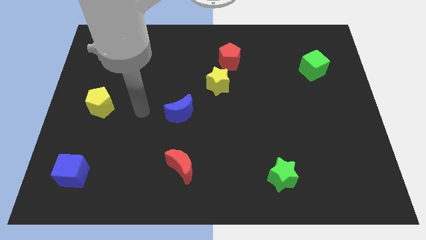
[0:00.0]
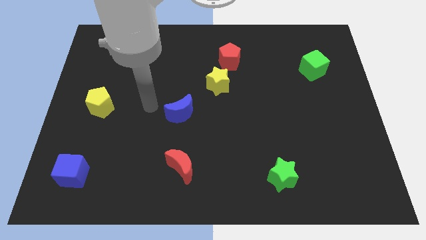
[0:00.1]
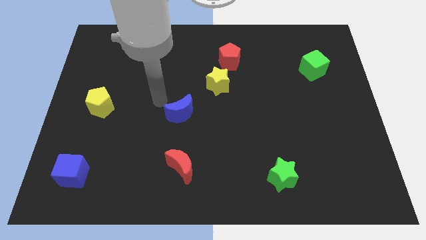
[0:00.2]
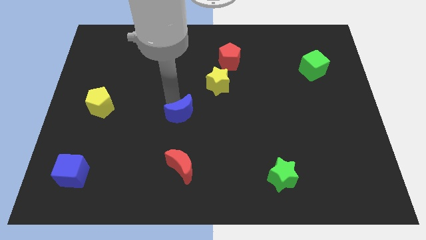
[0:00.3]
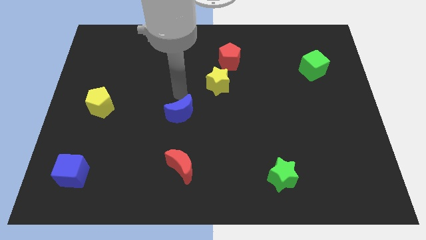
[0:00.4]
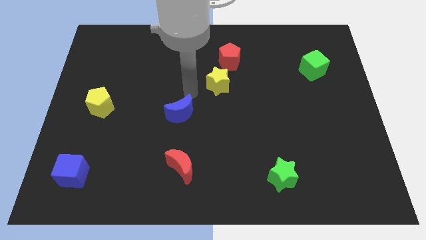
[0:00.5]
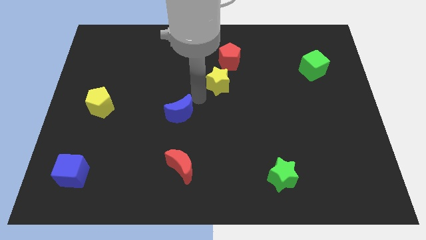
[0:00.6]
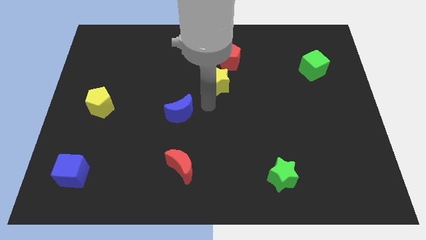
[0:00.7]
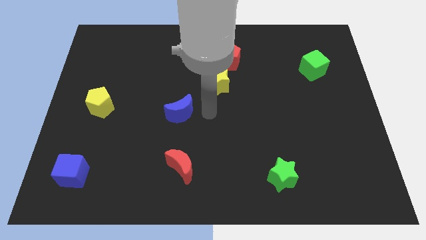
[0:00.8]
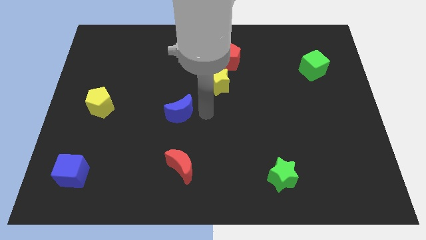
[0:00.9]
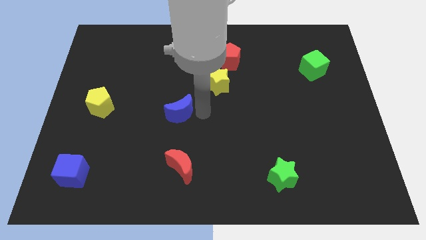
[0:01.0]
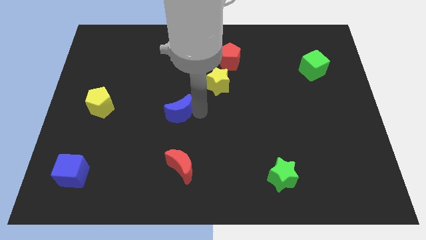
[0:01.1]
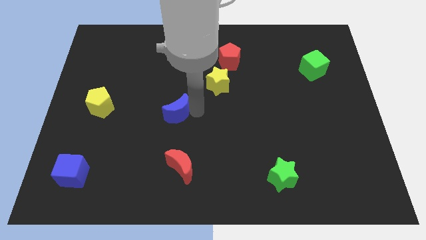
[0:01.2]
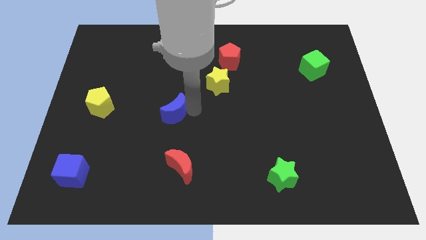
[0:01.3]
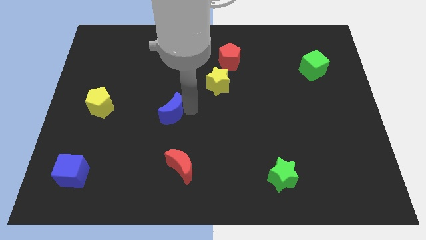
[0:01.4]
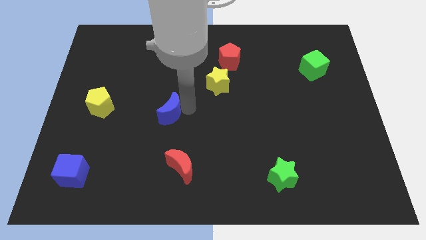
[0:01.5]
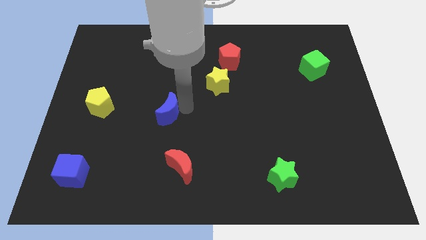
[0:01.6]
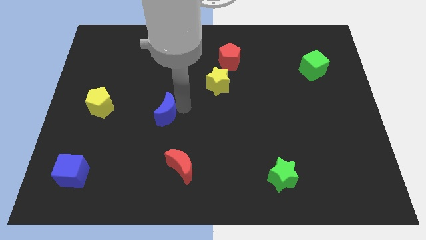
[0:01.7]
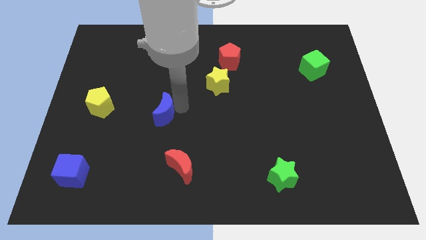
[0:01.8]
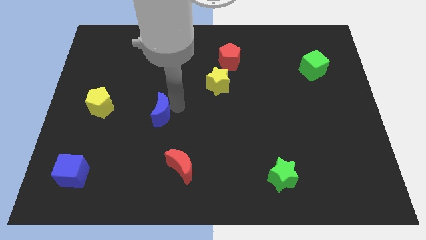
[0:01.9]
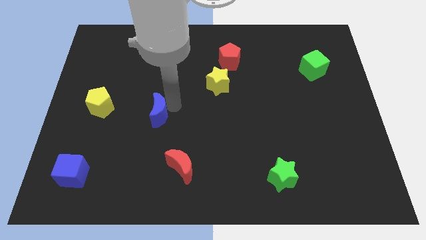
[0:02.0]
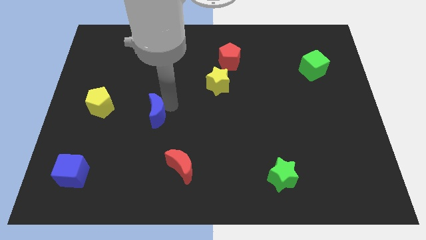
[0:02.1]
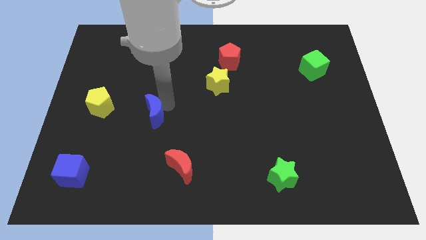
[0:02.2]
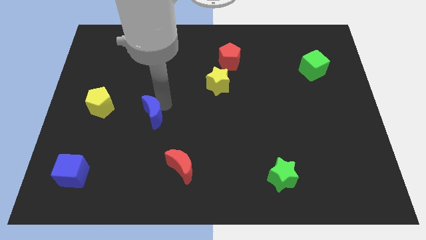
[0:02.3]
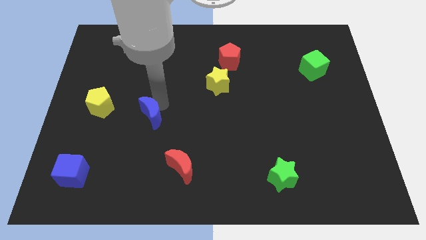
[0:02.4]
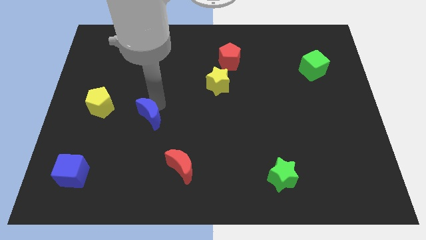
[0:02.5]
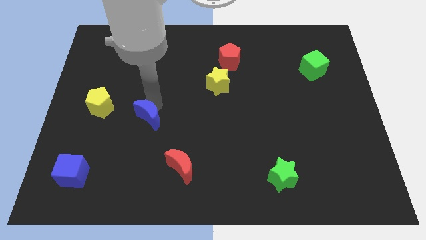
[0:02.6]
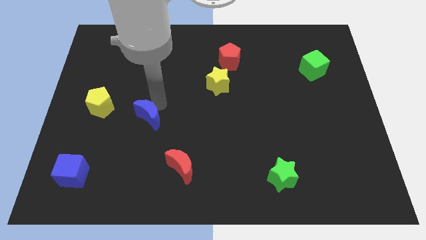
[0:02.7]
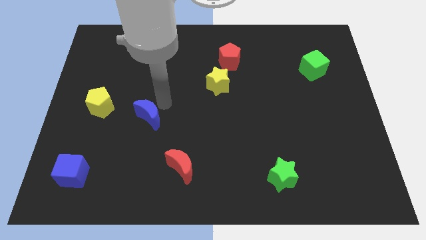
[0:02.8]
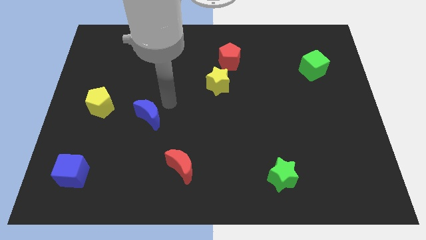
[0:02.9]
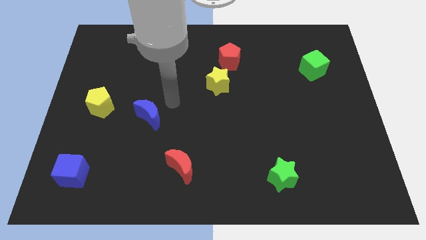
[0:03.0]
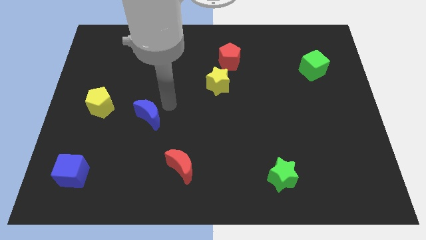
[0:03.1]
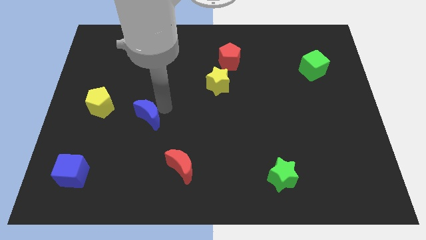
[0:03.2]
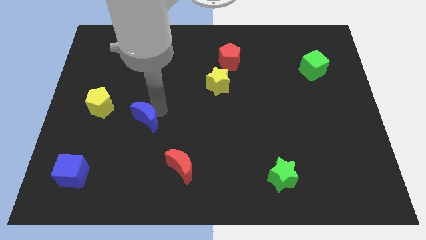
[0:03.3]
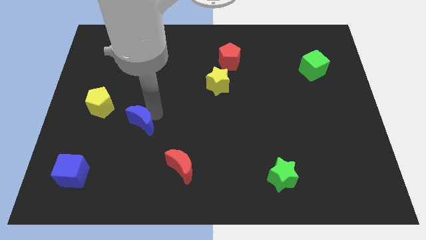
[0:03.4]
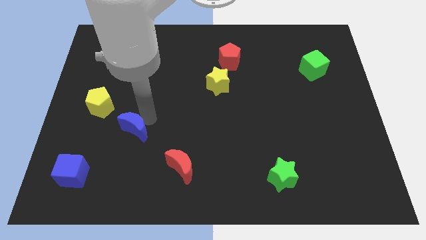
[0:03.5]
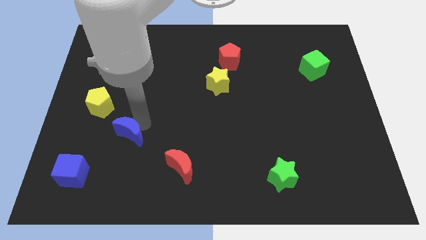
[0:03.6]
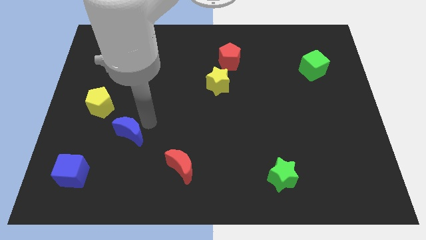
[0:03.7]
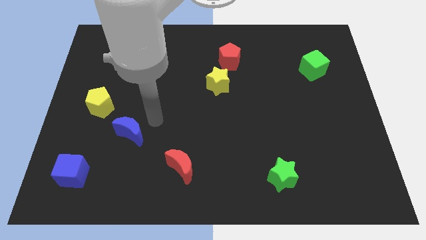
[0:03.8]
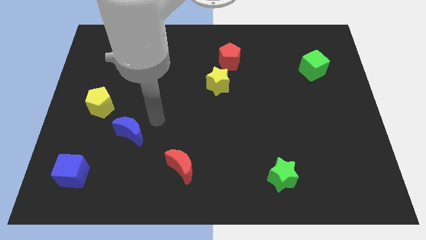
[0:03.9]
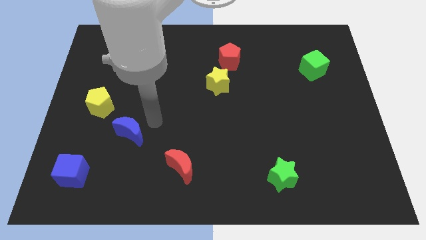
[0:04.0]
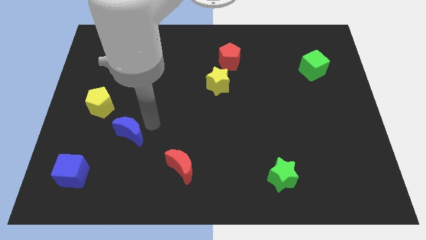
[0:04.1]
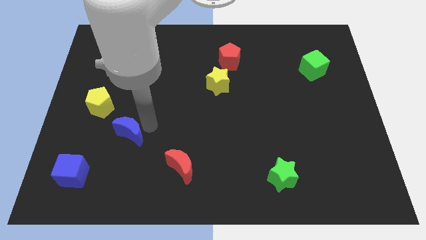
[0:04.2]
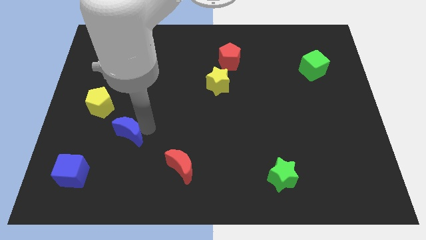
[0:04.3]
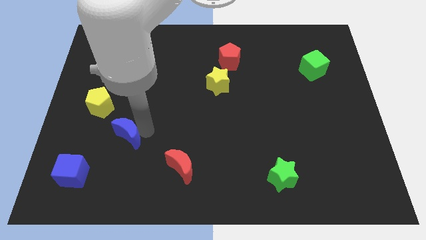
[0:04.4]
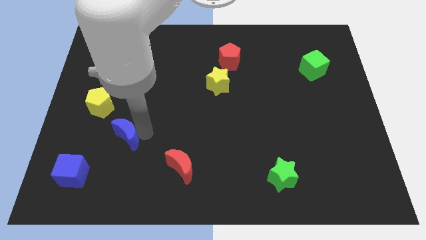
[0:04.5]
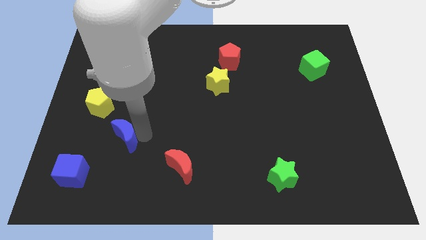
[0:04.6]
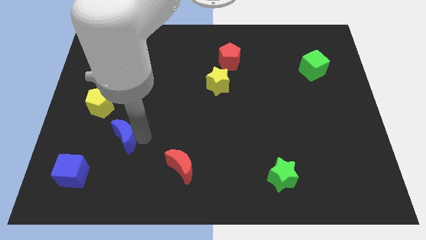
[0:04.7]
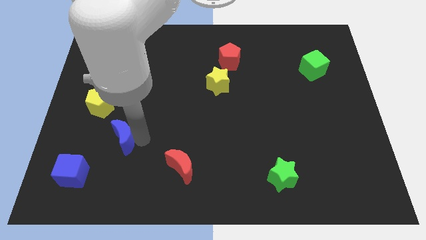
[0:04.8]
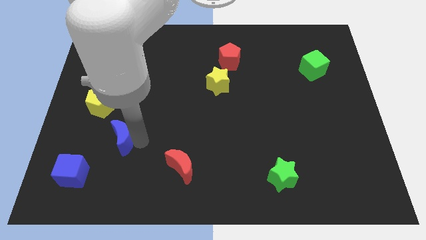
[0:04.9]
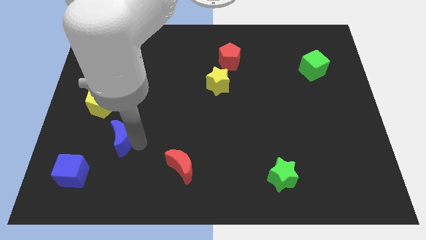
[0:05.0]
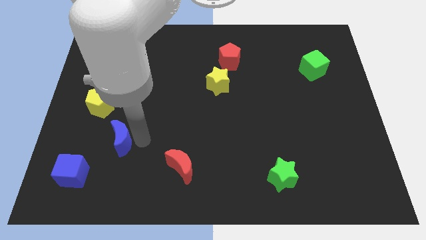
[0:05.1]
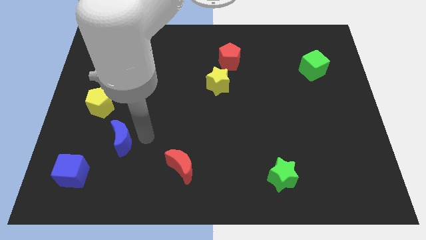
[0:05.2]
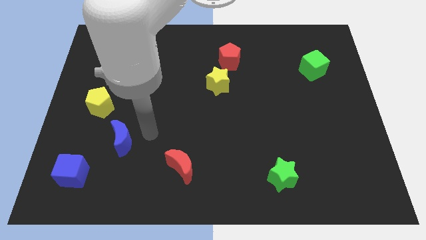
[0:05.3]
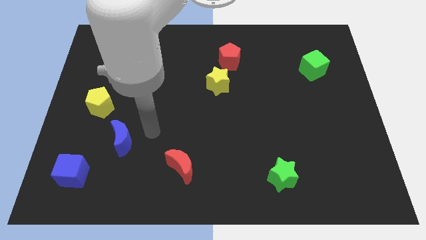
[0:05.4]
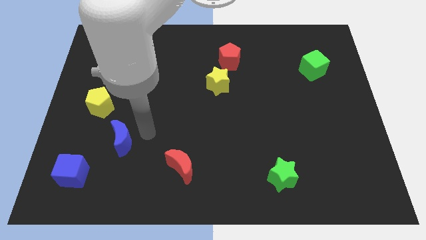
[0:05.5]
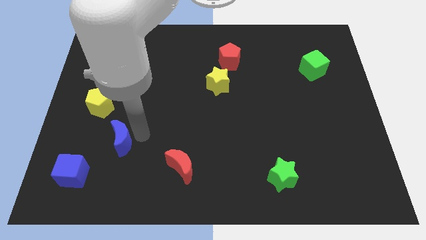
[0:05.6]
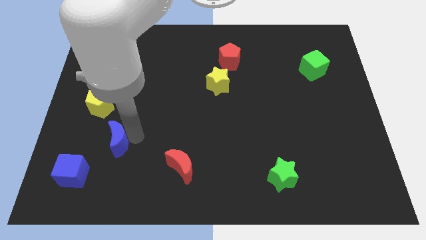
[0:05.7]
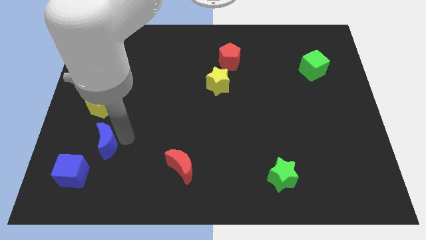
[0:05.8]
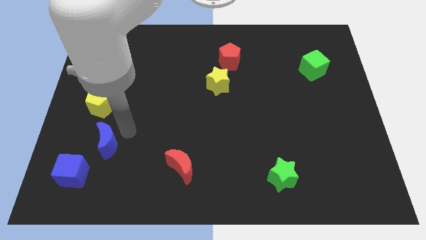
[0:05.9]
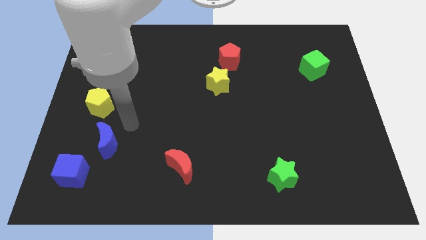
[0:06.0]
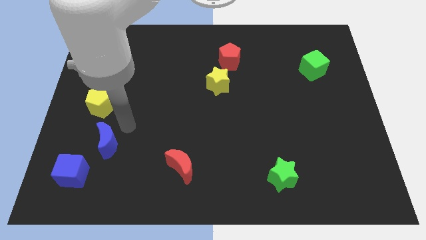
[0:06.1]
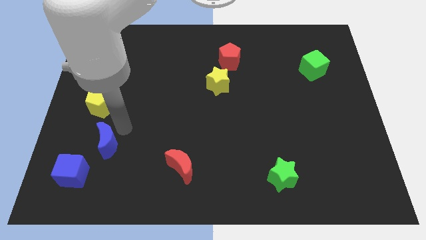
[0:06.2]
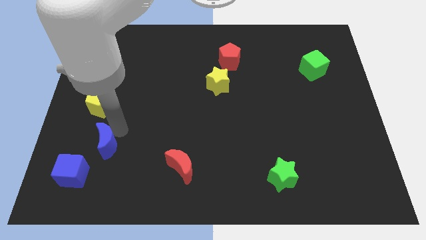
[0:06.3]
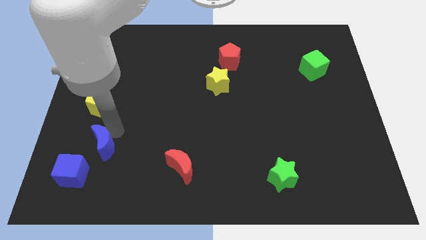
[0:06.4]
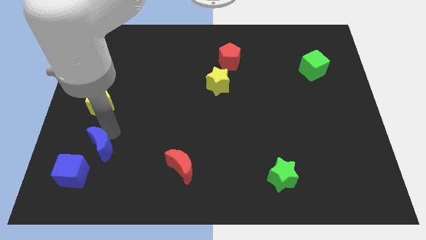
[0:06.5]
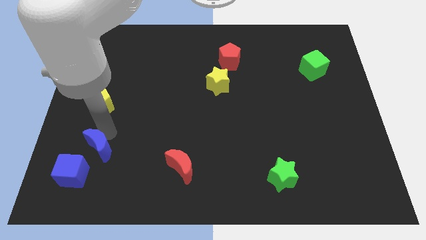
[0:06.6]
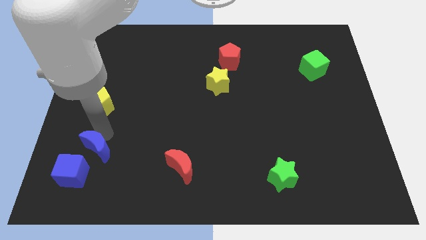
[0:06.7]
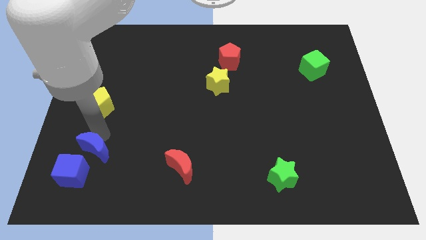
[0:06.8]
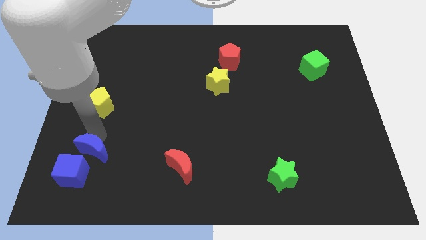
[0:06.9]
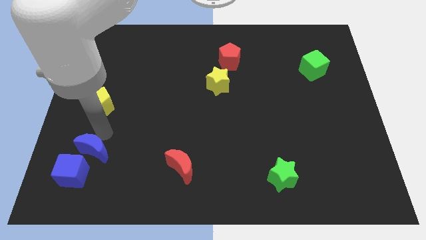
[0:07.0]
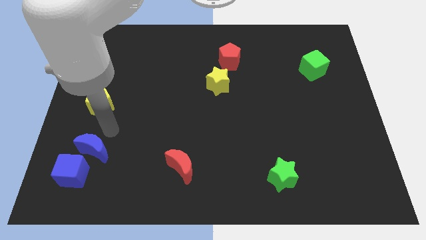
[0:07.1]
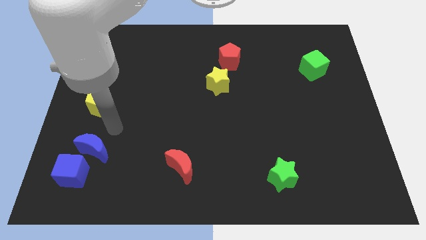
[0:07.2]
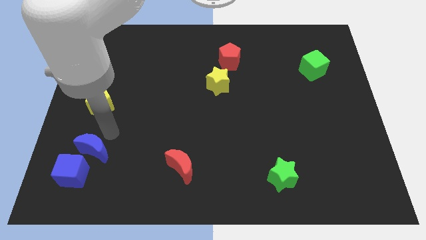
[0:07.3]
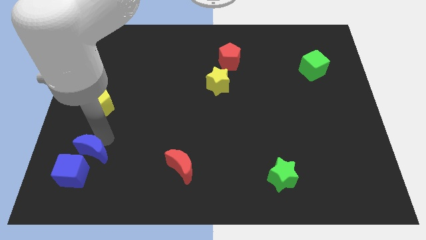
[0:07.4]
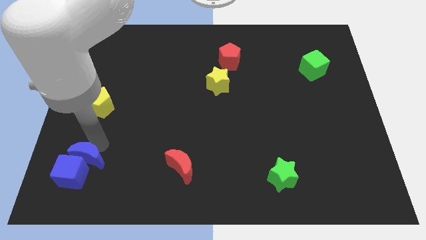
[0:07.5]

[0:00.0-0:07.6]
move the blue moon close to the blue cube
